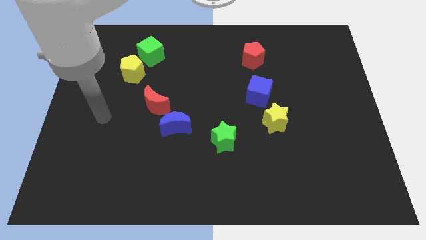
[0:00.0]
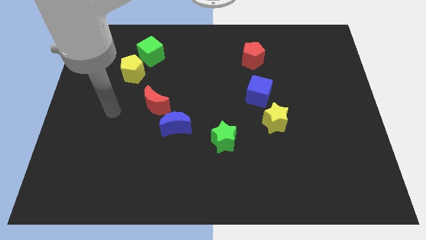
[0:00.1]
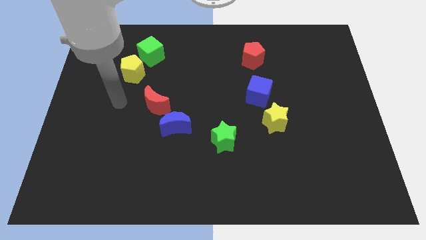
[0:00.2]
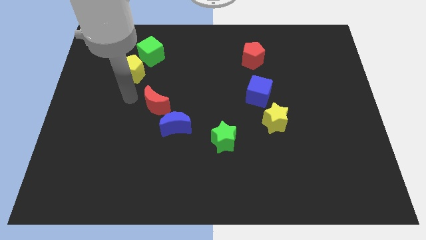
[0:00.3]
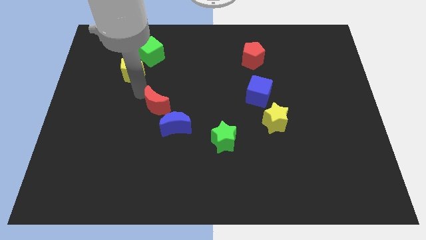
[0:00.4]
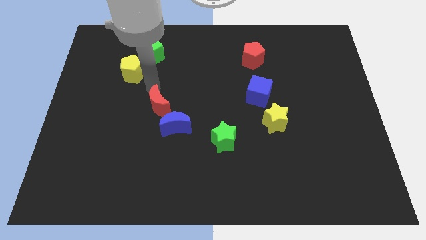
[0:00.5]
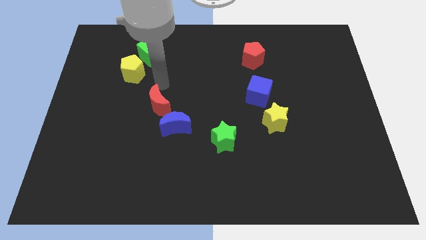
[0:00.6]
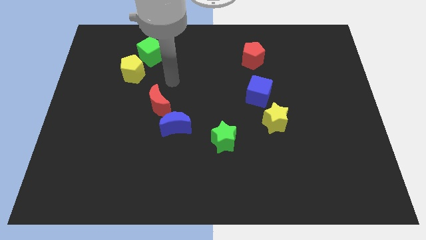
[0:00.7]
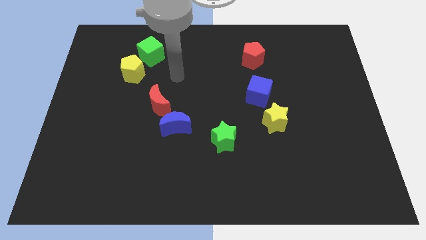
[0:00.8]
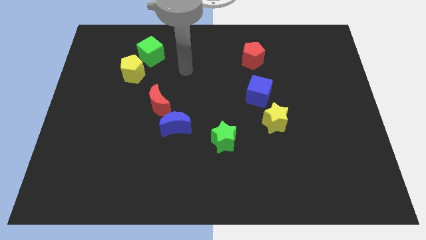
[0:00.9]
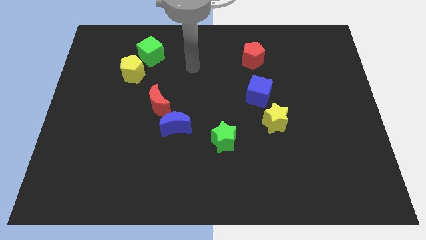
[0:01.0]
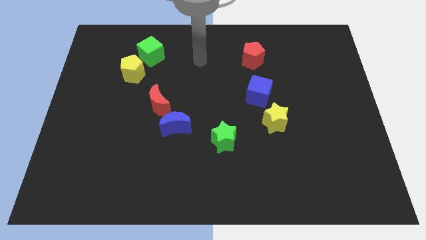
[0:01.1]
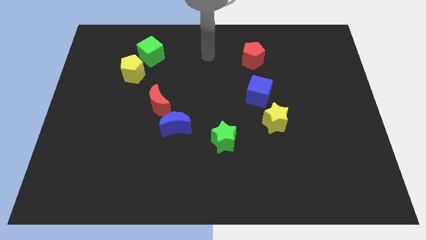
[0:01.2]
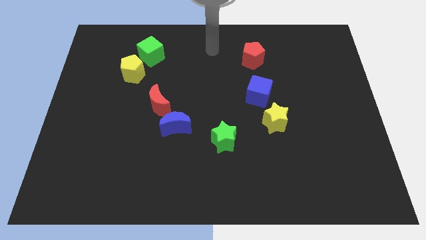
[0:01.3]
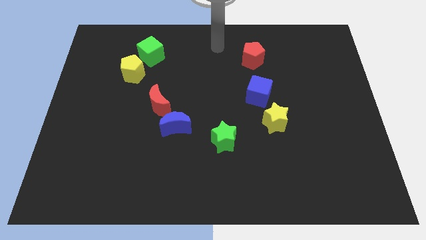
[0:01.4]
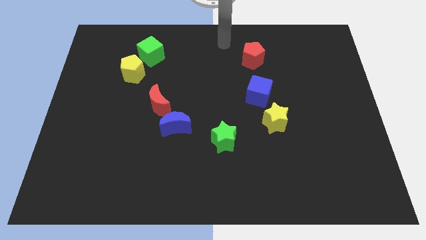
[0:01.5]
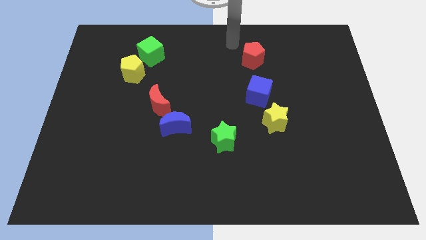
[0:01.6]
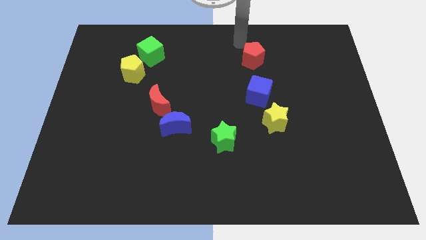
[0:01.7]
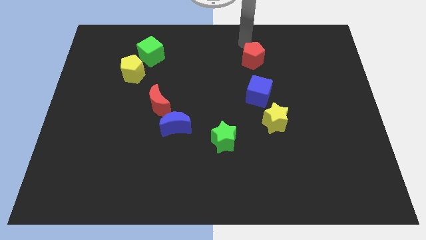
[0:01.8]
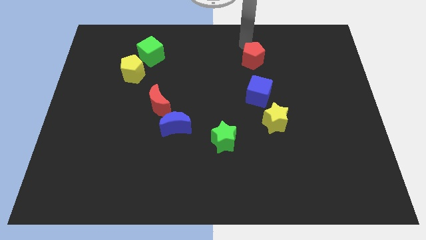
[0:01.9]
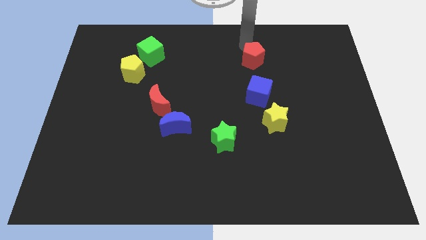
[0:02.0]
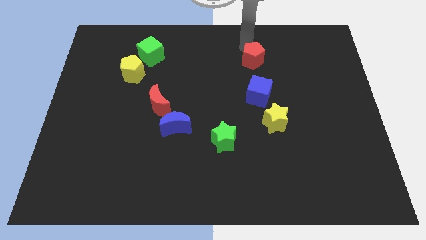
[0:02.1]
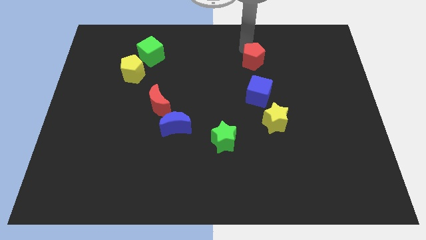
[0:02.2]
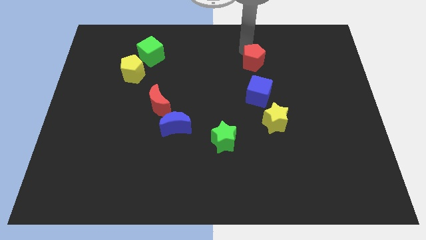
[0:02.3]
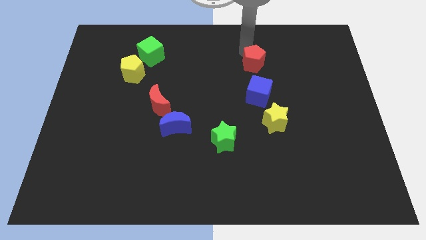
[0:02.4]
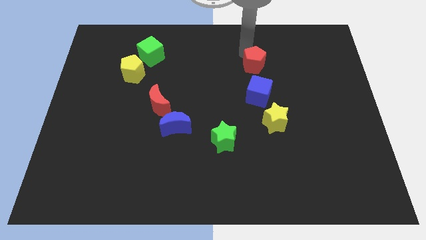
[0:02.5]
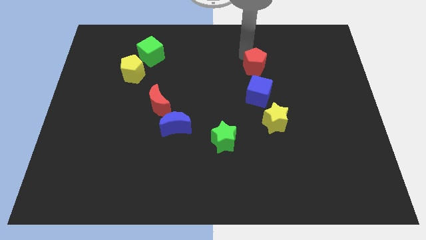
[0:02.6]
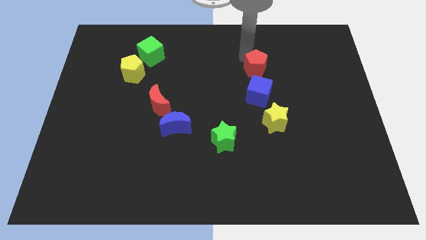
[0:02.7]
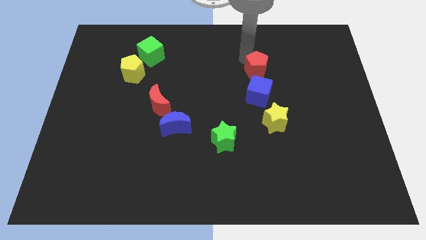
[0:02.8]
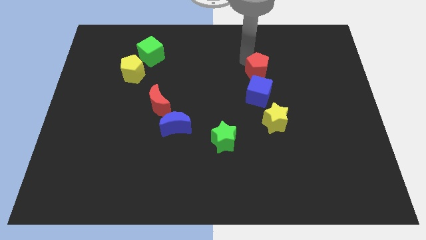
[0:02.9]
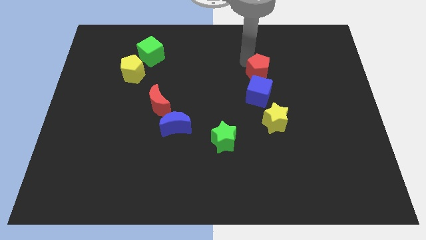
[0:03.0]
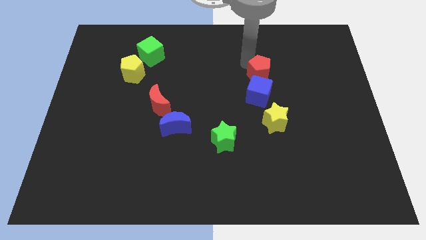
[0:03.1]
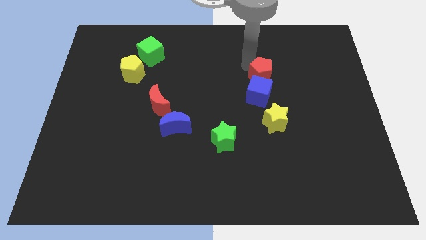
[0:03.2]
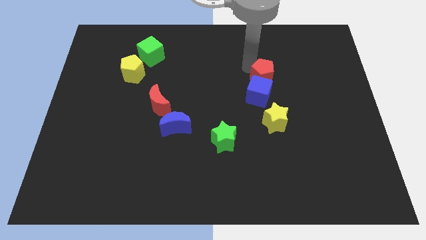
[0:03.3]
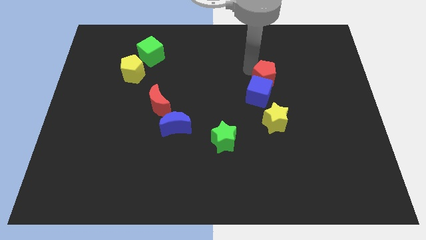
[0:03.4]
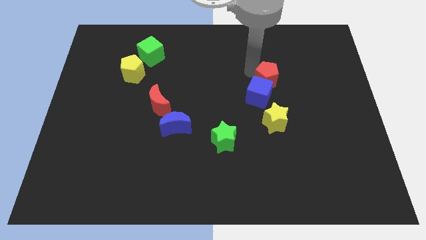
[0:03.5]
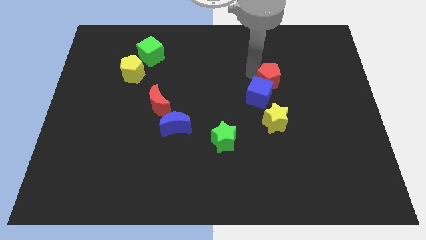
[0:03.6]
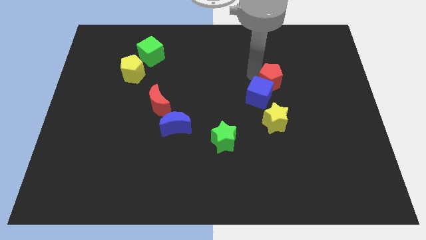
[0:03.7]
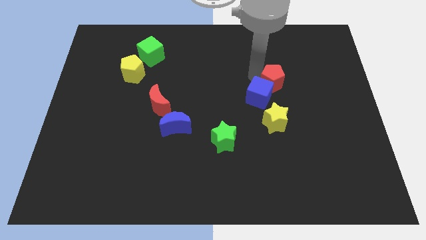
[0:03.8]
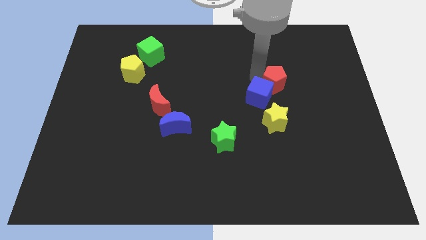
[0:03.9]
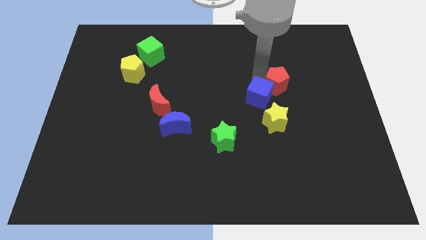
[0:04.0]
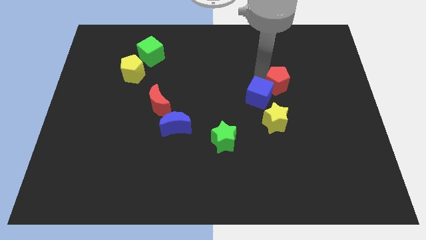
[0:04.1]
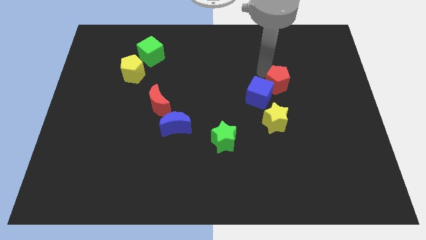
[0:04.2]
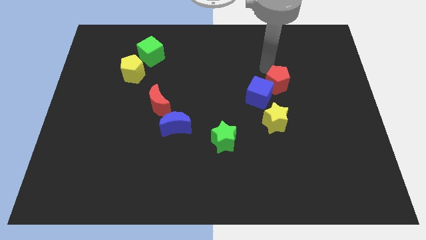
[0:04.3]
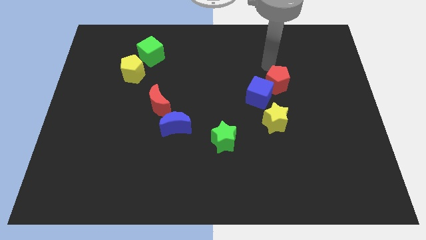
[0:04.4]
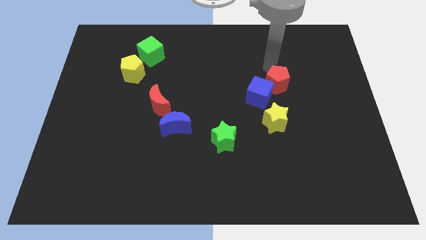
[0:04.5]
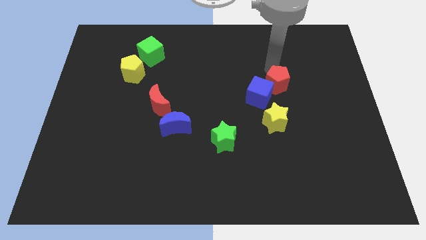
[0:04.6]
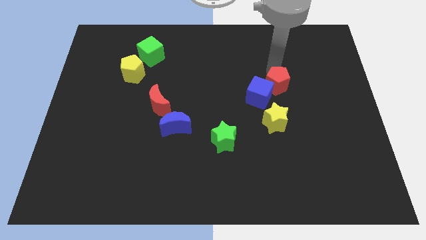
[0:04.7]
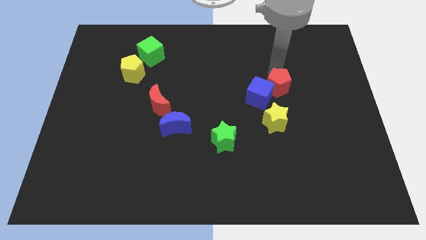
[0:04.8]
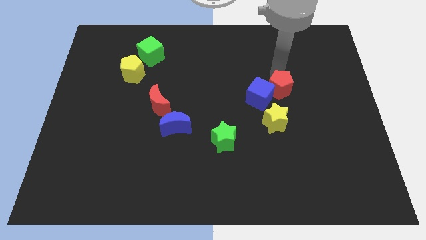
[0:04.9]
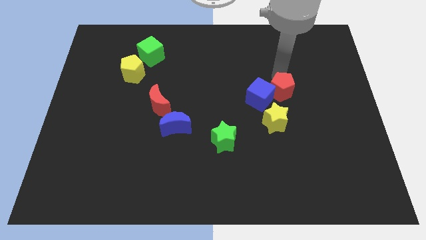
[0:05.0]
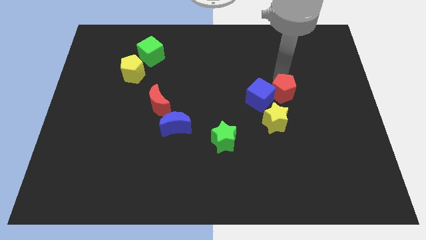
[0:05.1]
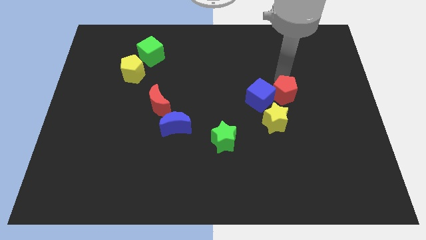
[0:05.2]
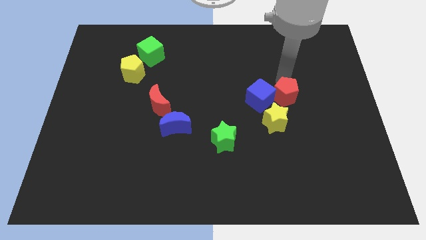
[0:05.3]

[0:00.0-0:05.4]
put the red pentagon to the bottom right of the blue cube

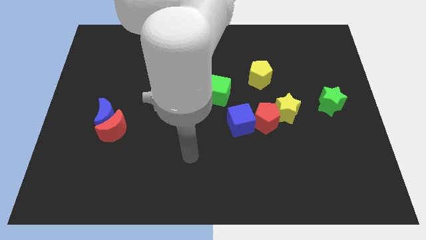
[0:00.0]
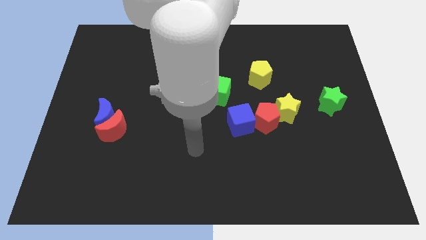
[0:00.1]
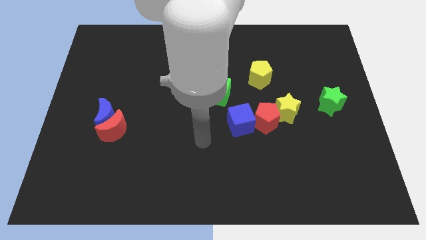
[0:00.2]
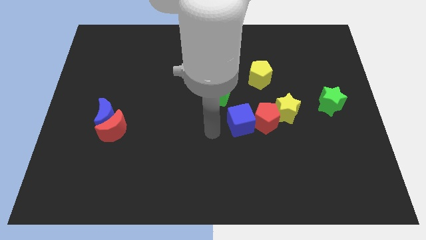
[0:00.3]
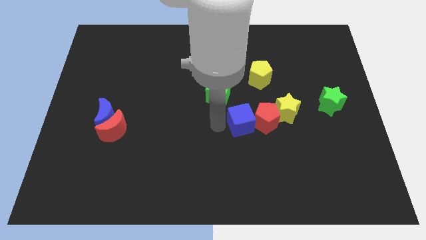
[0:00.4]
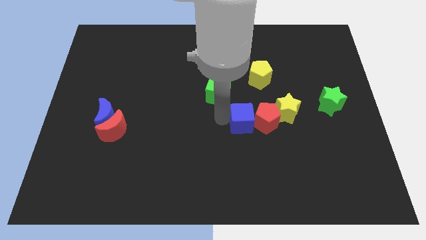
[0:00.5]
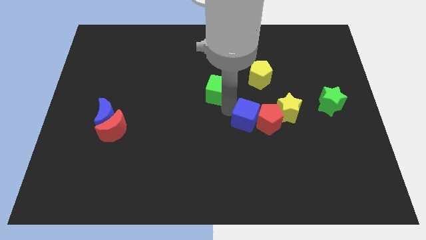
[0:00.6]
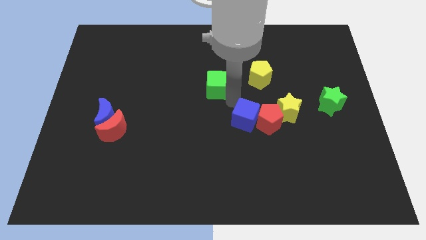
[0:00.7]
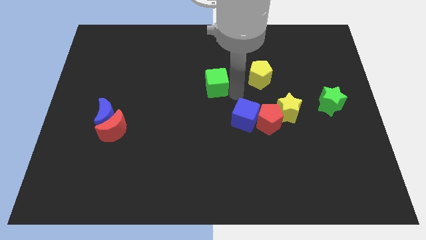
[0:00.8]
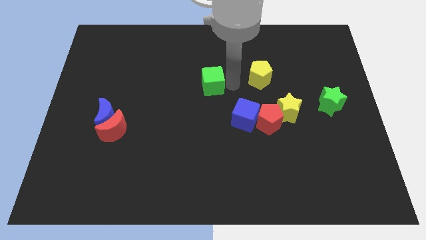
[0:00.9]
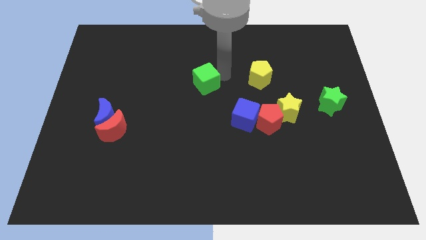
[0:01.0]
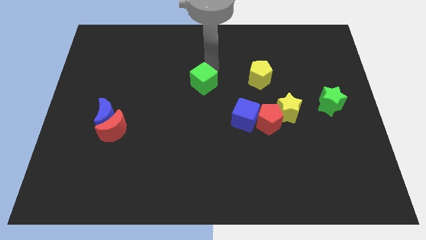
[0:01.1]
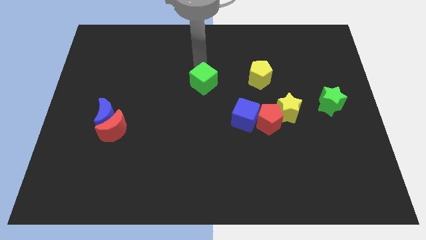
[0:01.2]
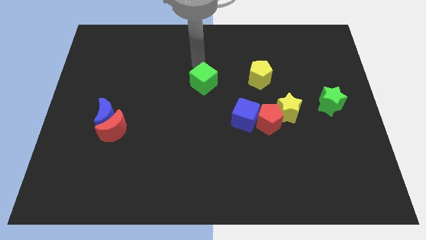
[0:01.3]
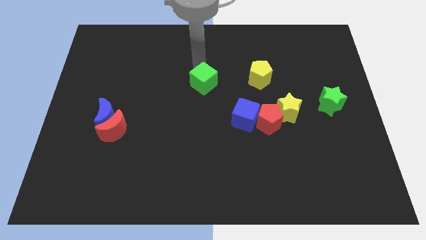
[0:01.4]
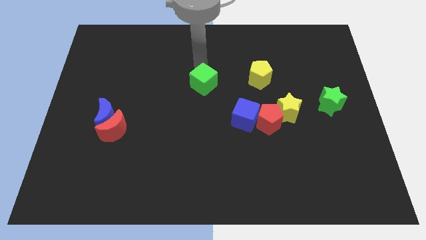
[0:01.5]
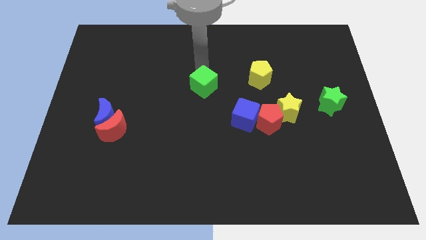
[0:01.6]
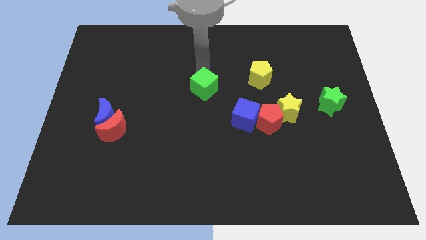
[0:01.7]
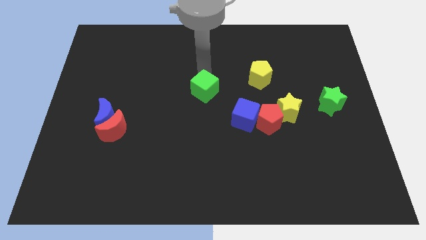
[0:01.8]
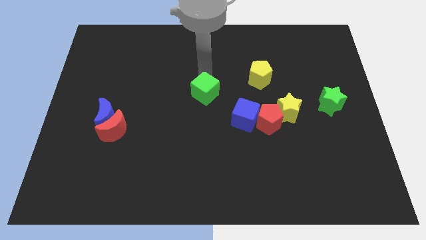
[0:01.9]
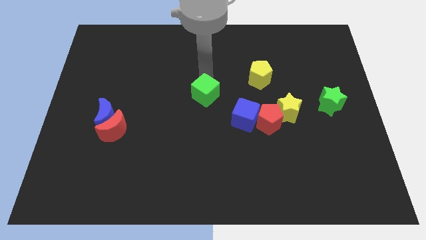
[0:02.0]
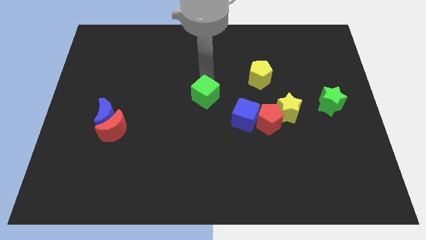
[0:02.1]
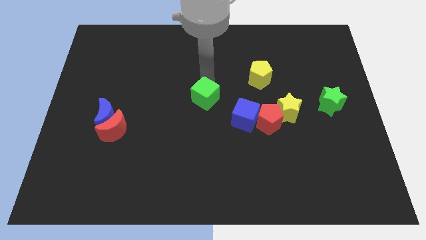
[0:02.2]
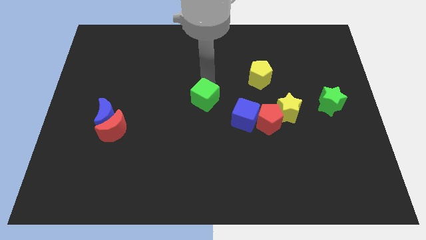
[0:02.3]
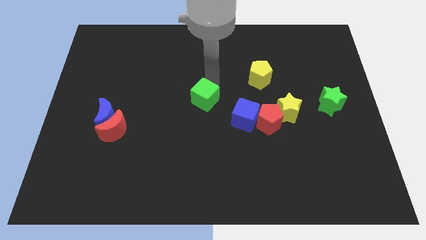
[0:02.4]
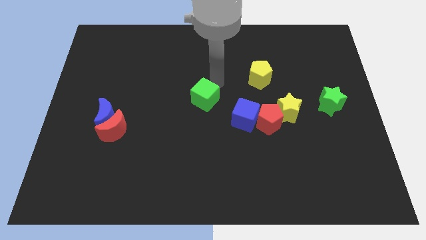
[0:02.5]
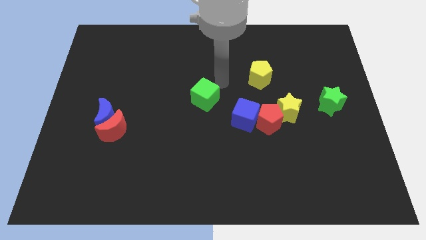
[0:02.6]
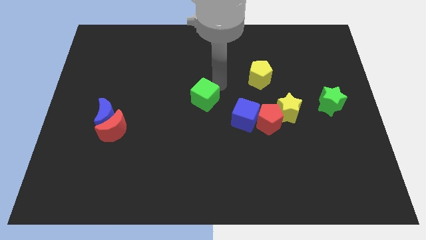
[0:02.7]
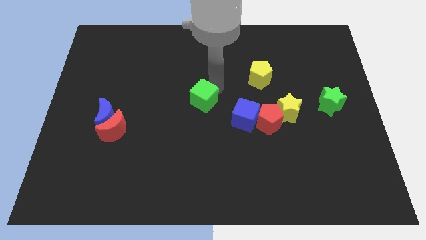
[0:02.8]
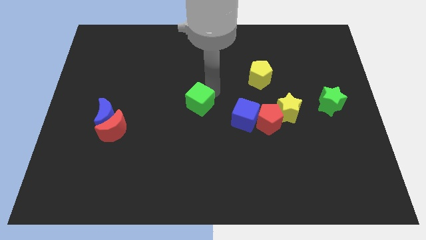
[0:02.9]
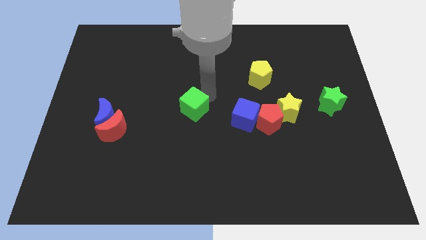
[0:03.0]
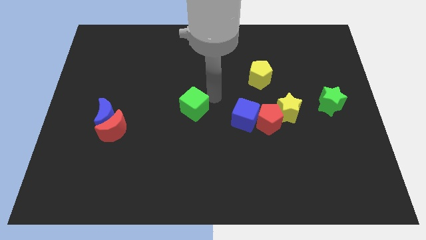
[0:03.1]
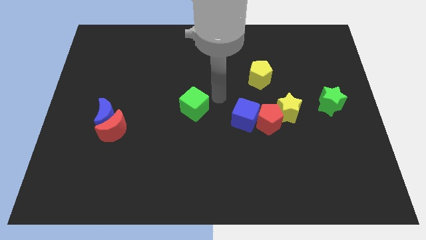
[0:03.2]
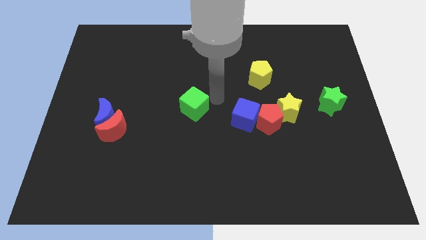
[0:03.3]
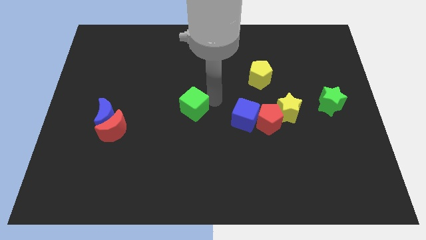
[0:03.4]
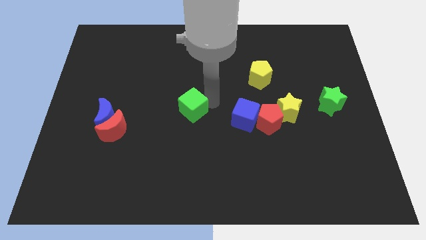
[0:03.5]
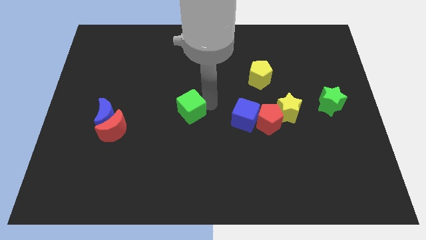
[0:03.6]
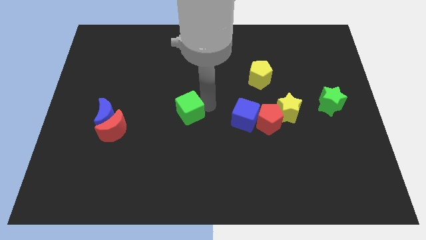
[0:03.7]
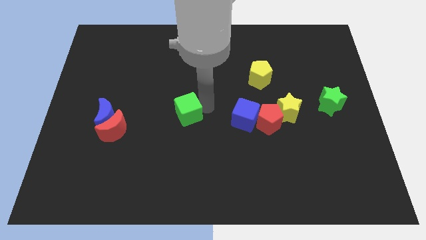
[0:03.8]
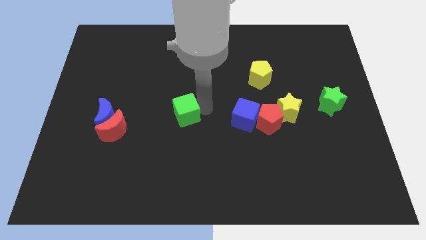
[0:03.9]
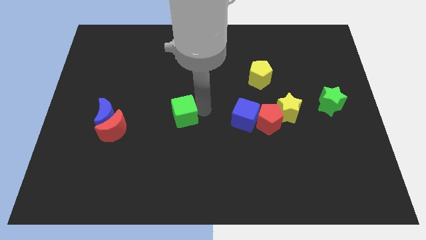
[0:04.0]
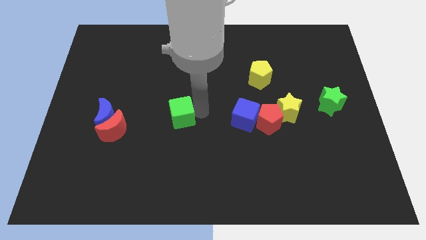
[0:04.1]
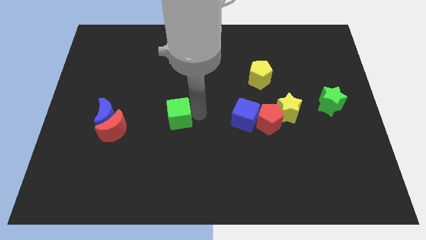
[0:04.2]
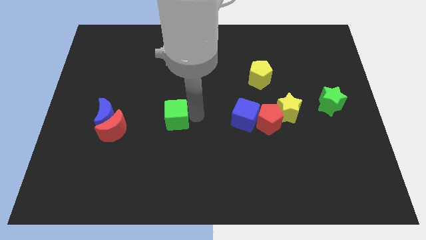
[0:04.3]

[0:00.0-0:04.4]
put the green cube to the right of the blue moon
